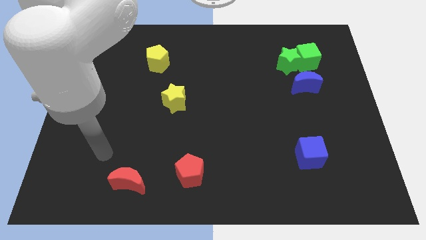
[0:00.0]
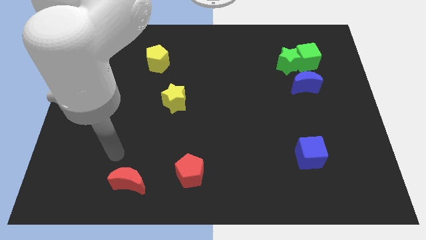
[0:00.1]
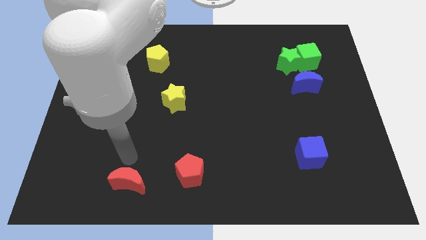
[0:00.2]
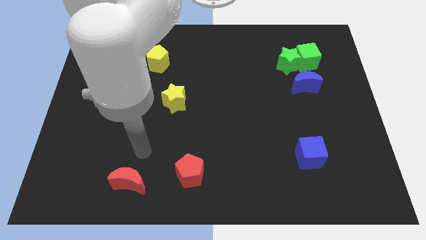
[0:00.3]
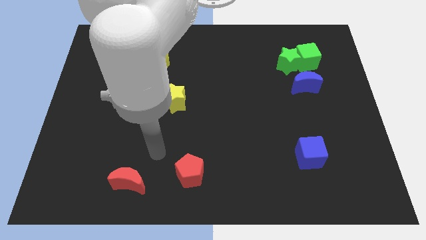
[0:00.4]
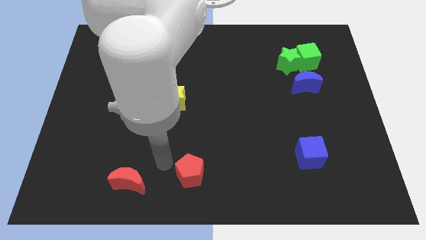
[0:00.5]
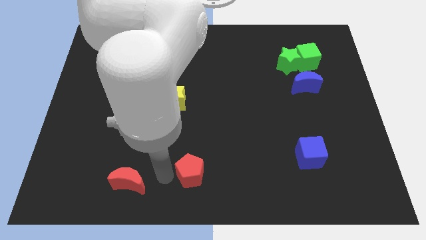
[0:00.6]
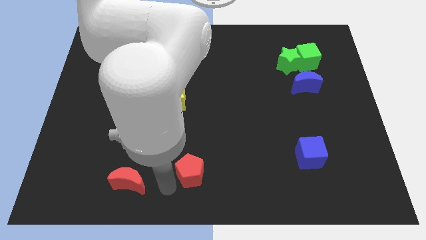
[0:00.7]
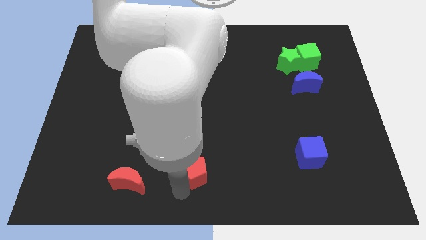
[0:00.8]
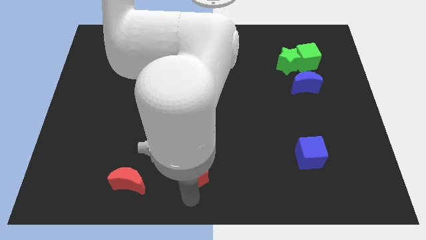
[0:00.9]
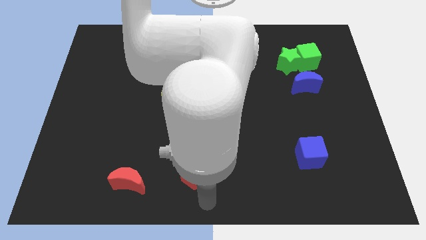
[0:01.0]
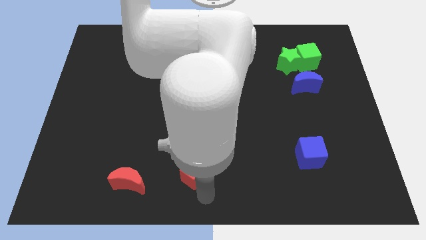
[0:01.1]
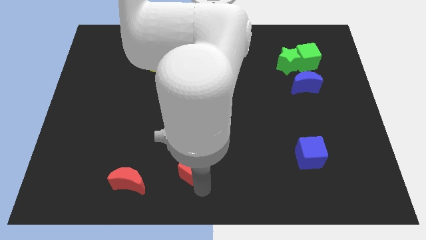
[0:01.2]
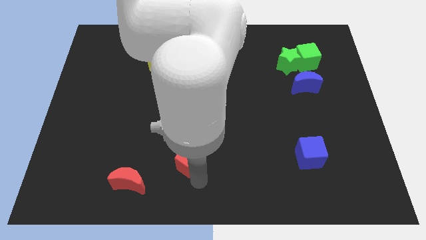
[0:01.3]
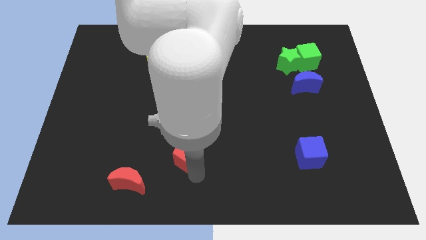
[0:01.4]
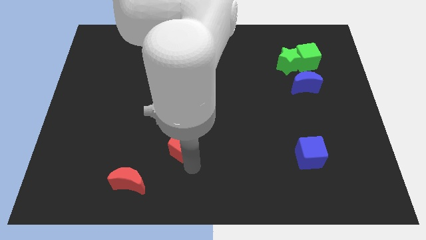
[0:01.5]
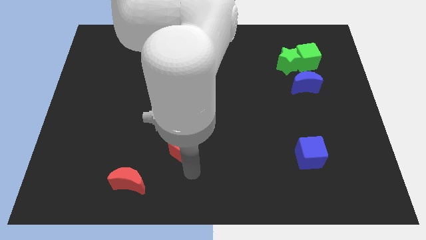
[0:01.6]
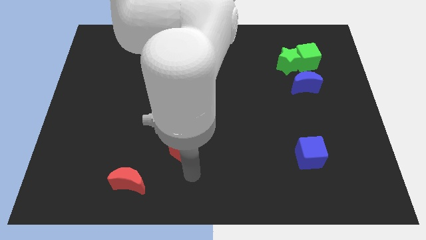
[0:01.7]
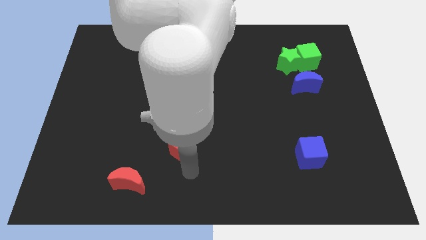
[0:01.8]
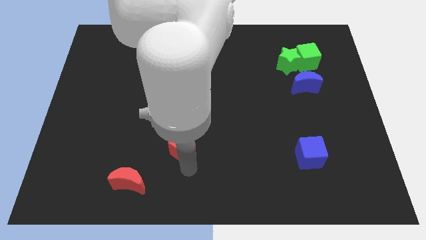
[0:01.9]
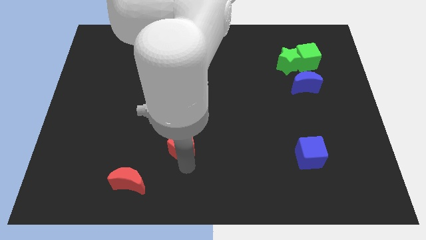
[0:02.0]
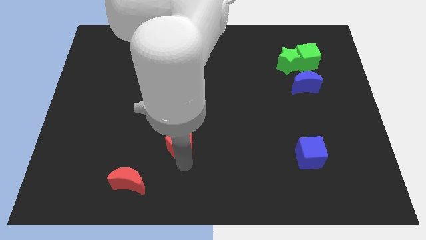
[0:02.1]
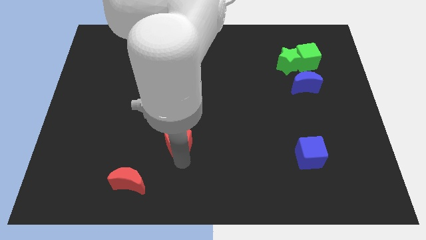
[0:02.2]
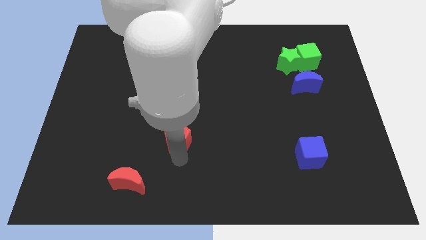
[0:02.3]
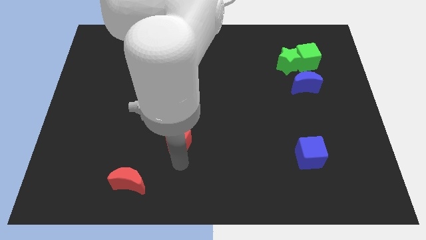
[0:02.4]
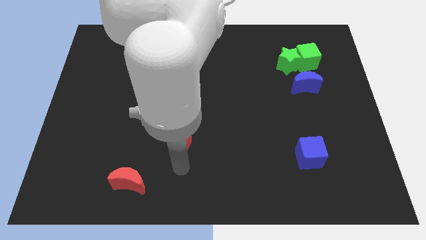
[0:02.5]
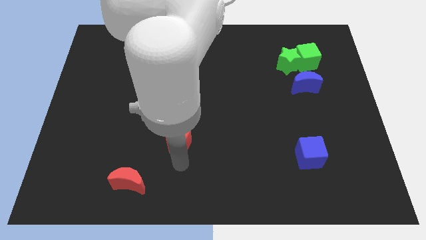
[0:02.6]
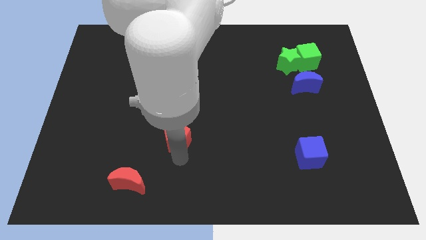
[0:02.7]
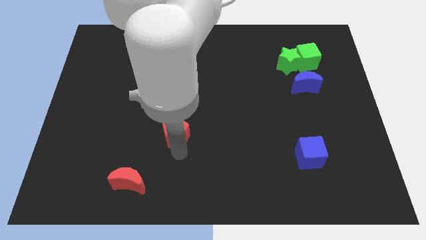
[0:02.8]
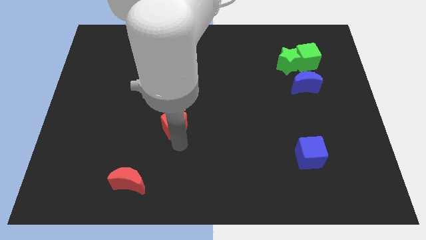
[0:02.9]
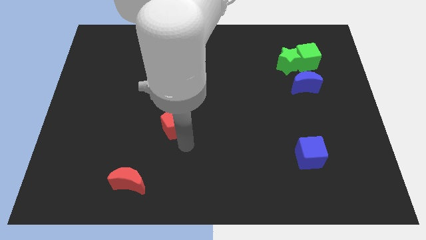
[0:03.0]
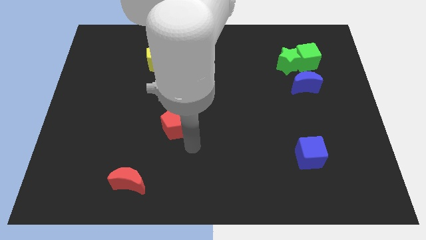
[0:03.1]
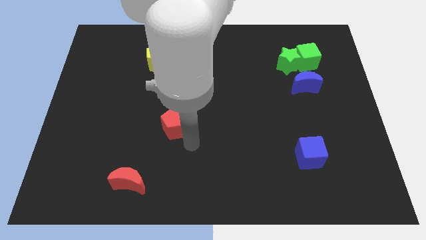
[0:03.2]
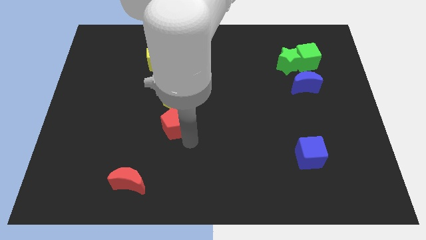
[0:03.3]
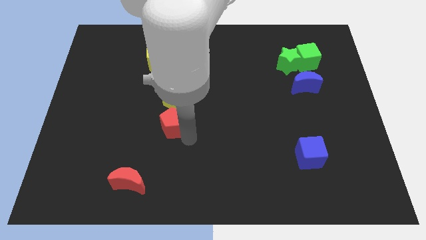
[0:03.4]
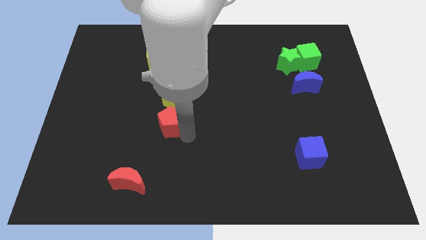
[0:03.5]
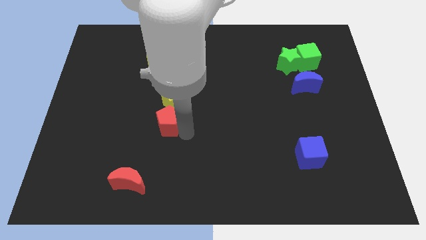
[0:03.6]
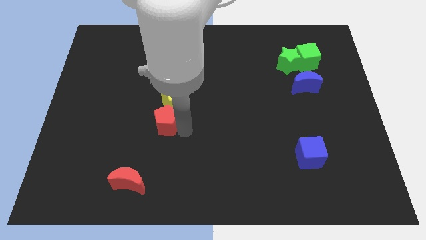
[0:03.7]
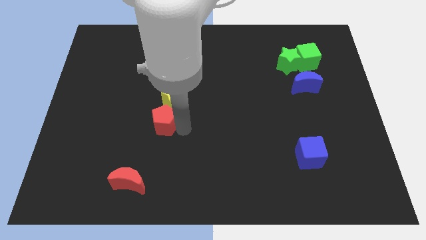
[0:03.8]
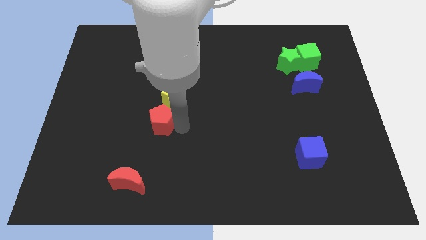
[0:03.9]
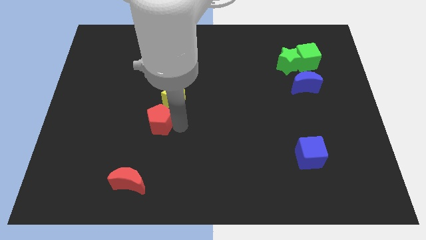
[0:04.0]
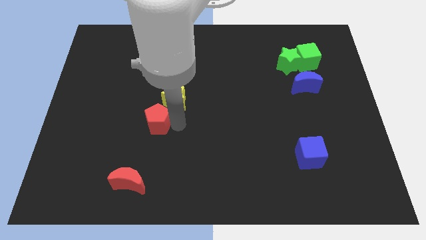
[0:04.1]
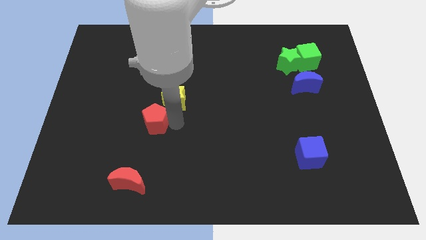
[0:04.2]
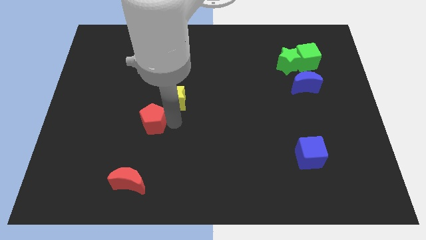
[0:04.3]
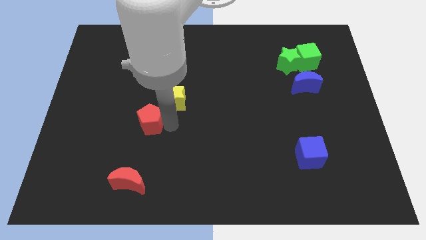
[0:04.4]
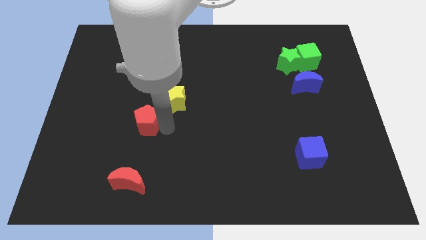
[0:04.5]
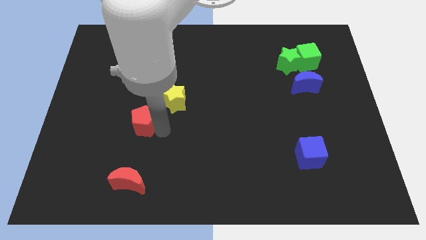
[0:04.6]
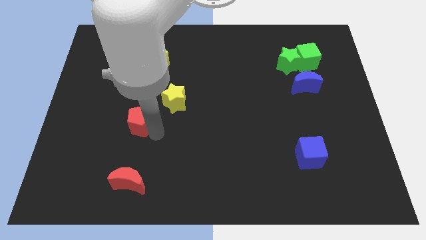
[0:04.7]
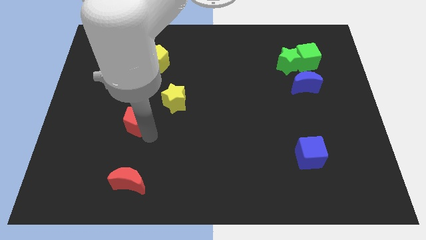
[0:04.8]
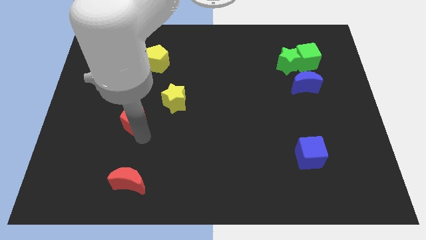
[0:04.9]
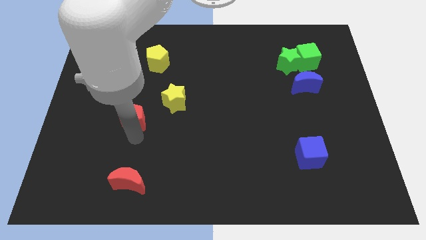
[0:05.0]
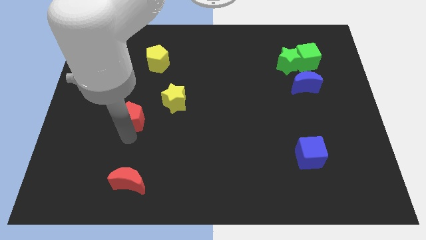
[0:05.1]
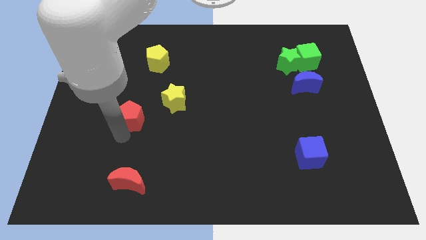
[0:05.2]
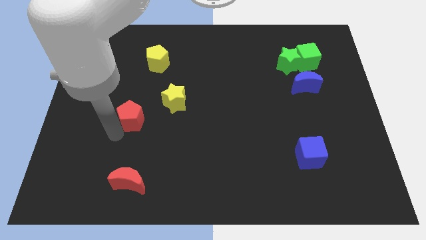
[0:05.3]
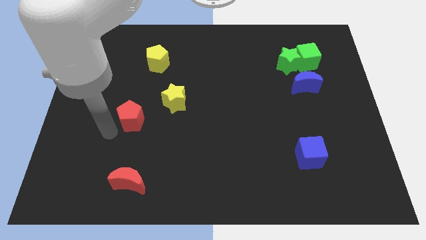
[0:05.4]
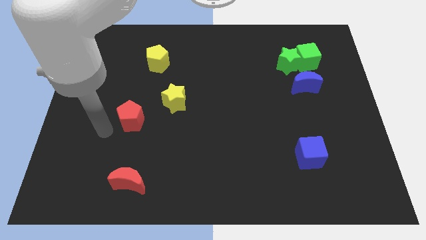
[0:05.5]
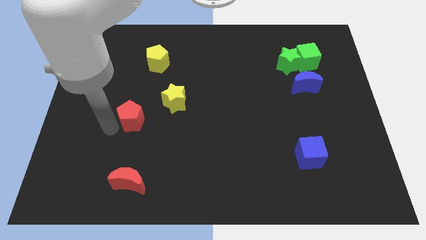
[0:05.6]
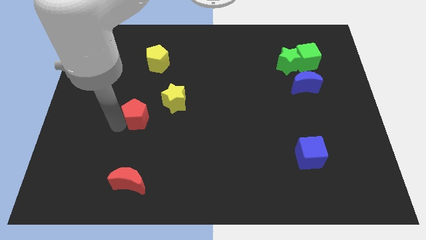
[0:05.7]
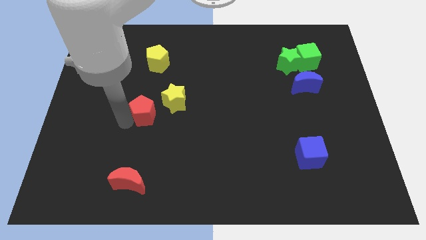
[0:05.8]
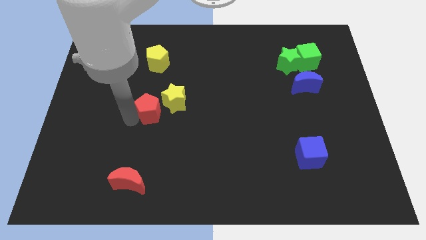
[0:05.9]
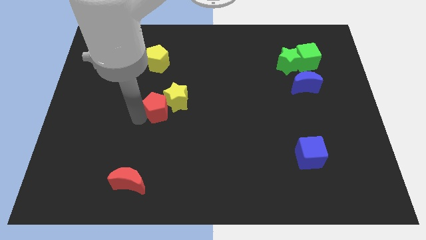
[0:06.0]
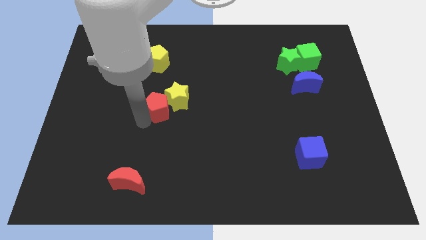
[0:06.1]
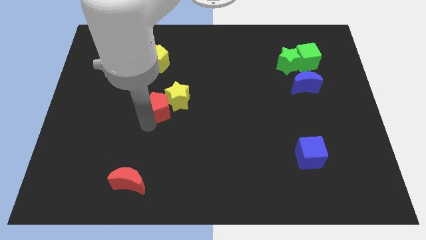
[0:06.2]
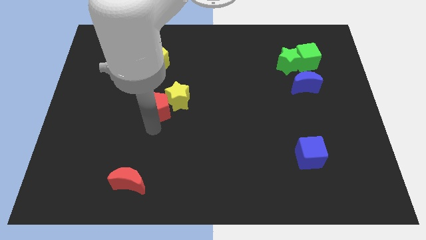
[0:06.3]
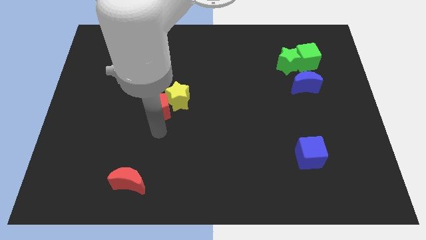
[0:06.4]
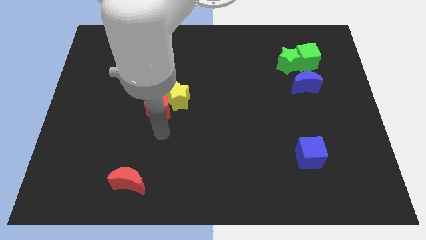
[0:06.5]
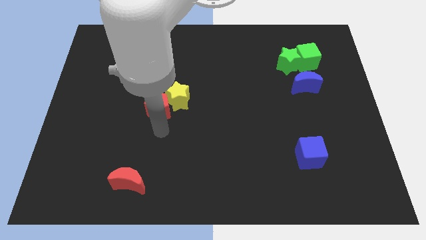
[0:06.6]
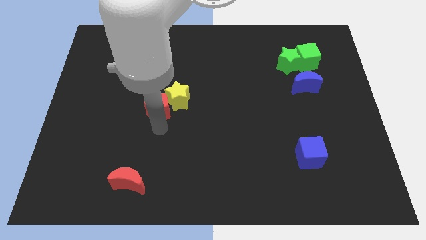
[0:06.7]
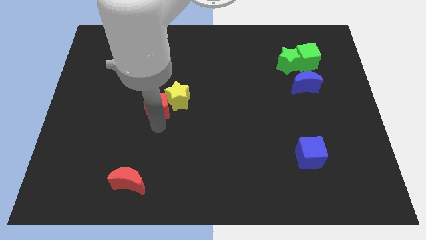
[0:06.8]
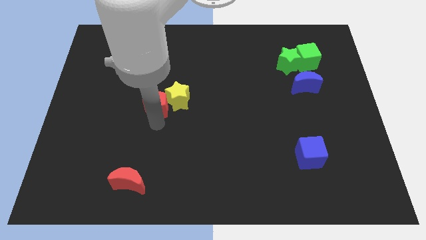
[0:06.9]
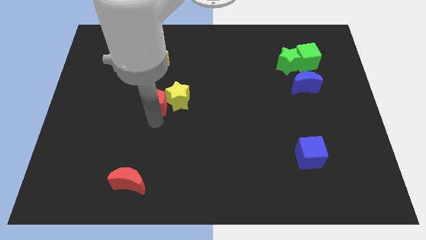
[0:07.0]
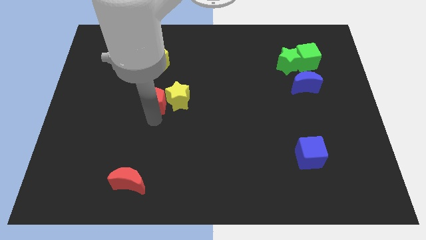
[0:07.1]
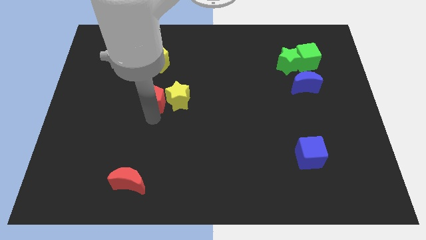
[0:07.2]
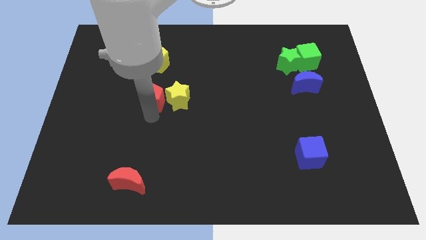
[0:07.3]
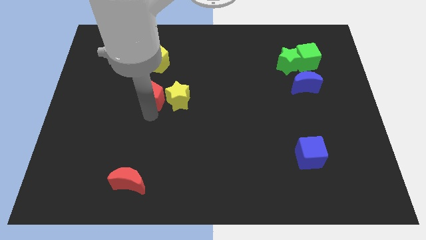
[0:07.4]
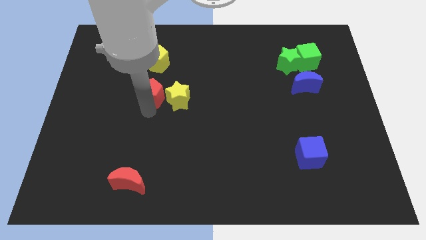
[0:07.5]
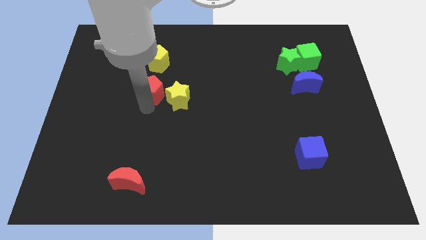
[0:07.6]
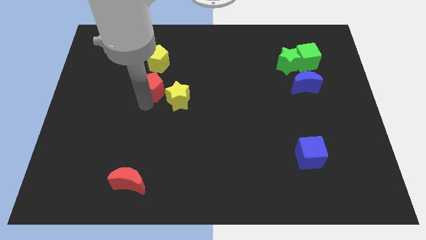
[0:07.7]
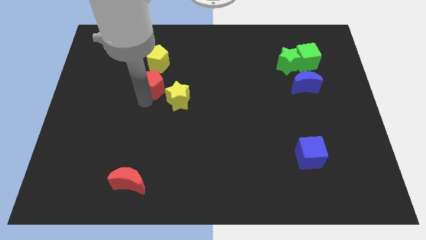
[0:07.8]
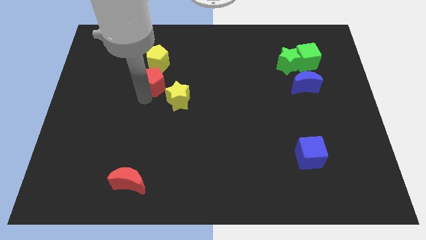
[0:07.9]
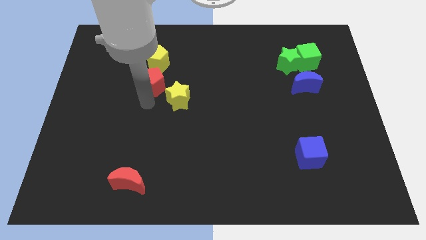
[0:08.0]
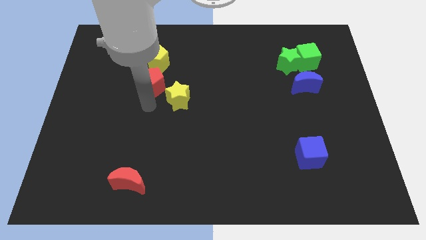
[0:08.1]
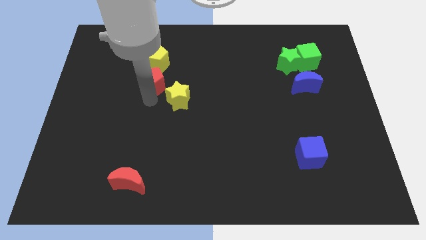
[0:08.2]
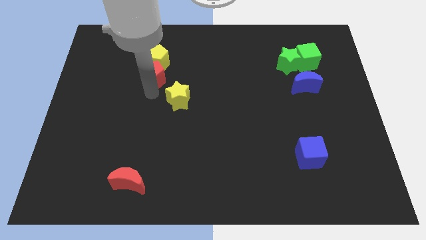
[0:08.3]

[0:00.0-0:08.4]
slide the red pentagon towards the yellow pentagon
